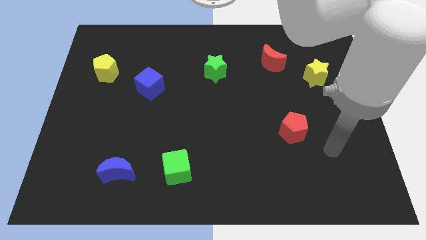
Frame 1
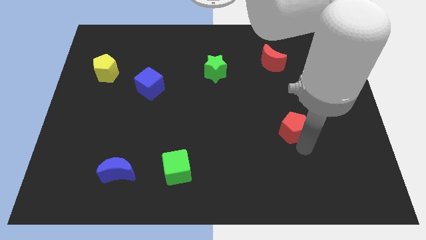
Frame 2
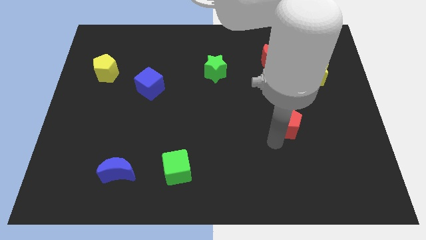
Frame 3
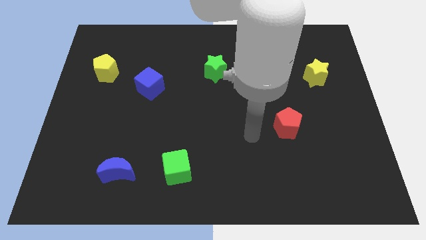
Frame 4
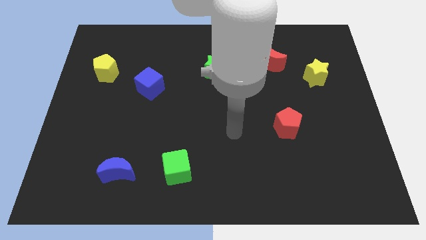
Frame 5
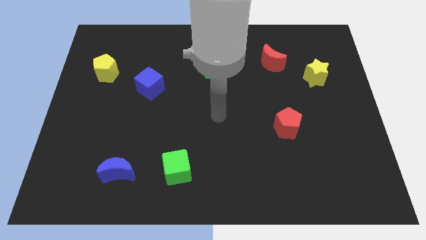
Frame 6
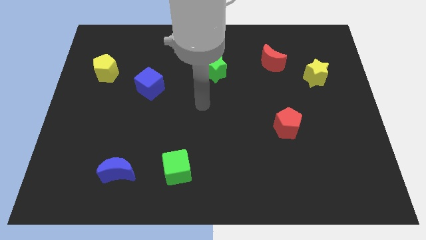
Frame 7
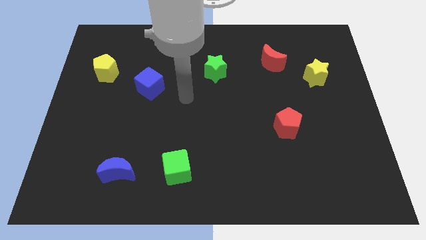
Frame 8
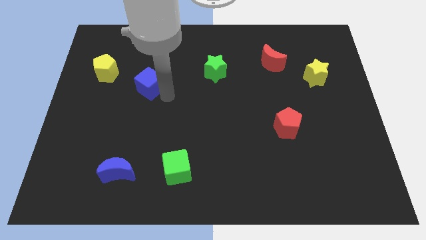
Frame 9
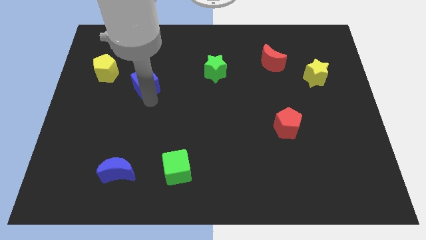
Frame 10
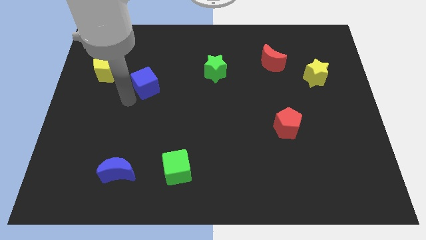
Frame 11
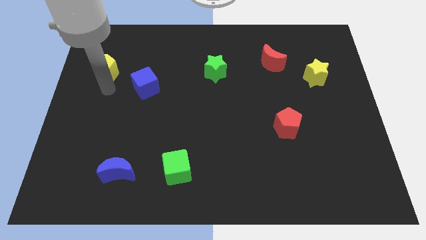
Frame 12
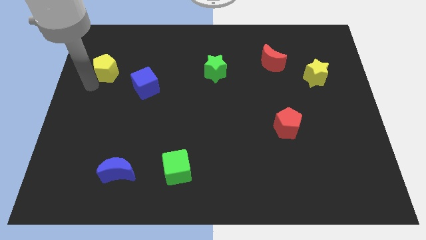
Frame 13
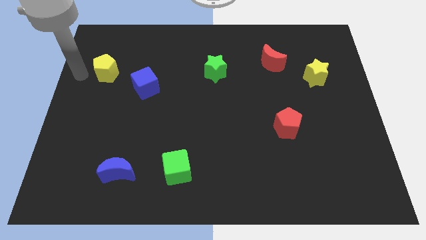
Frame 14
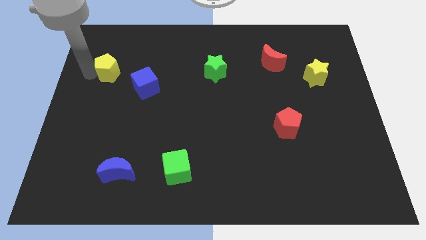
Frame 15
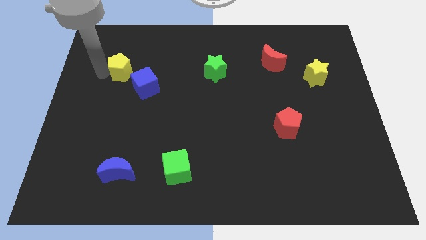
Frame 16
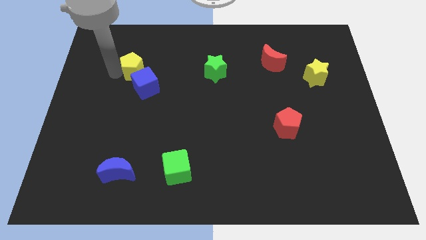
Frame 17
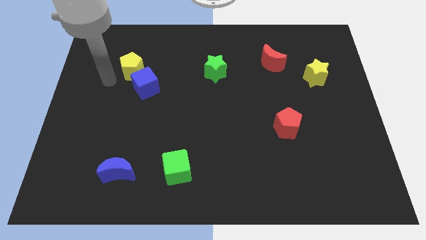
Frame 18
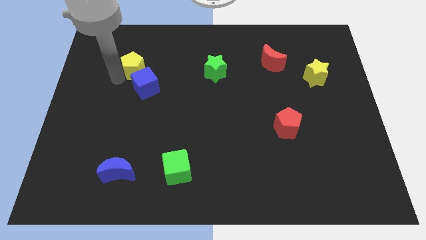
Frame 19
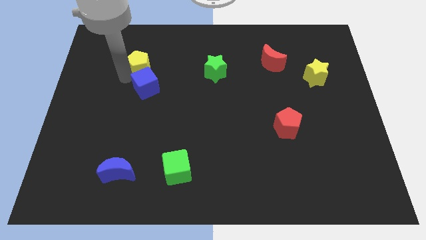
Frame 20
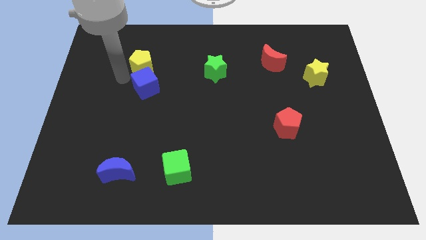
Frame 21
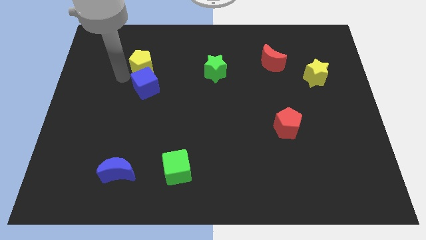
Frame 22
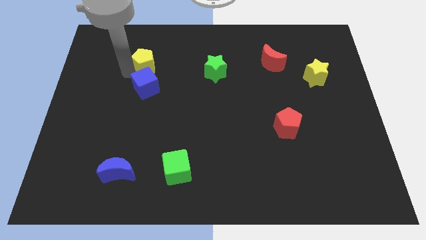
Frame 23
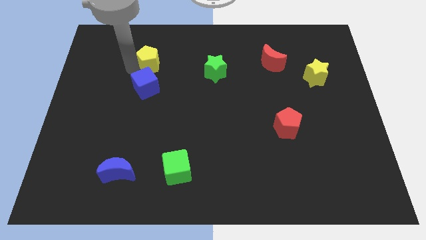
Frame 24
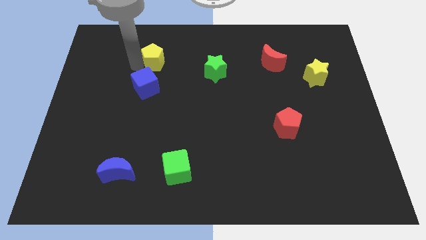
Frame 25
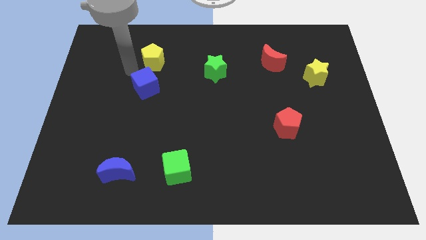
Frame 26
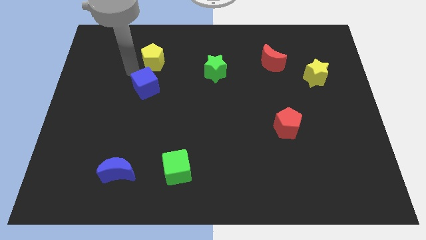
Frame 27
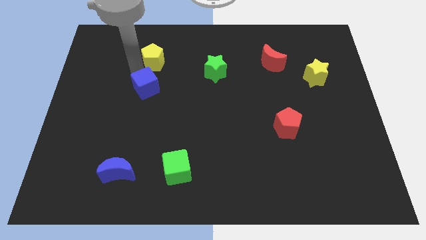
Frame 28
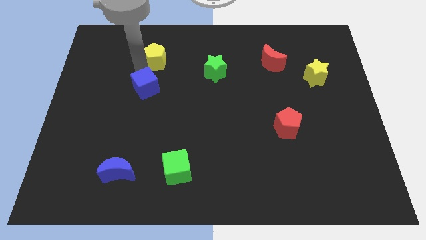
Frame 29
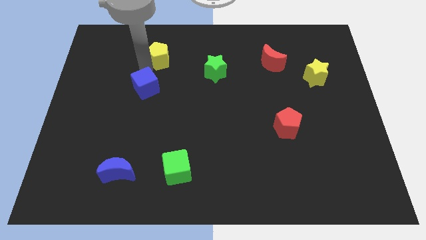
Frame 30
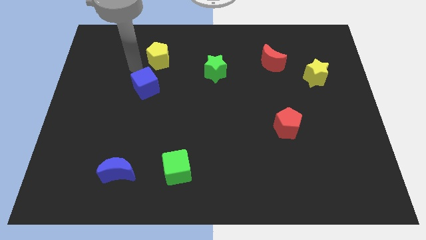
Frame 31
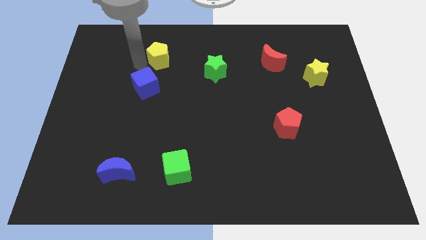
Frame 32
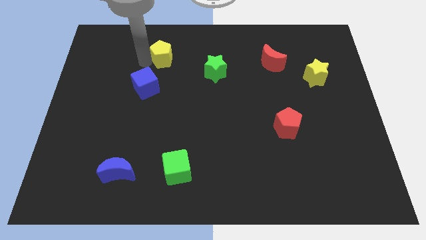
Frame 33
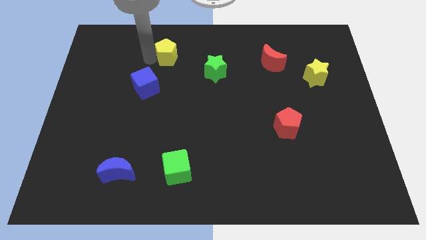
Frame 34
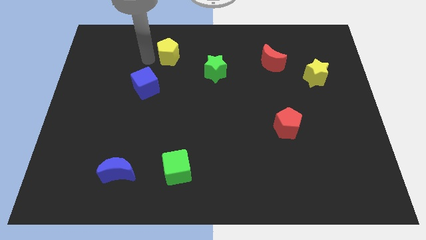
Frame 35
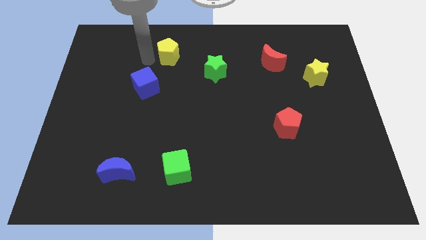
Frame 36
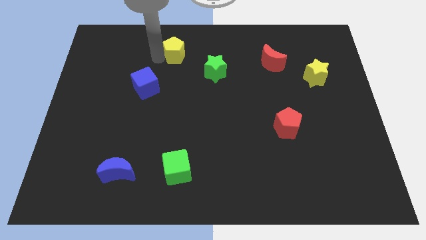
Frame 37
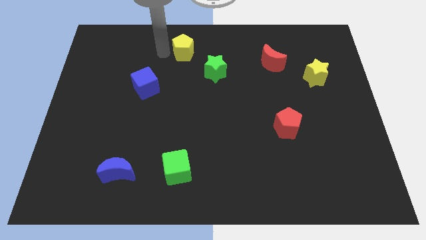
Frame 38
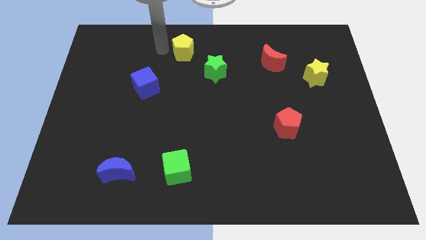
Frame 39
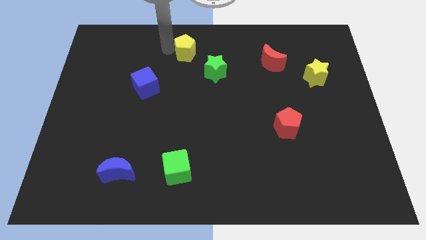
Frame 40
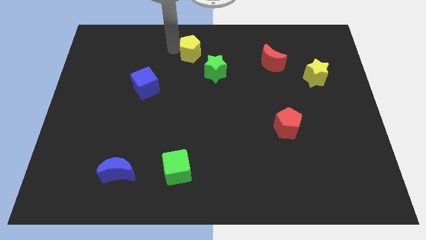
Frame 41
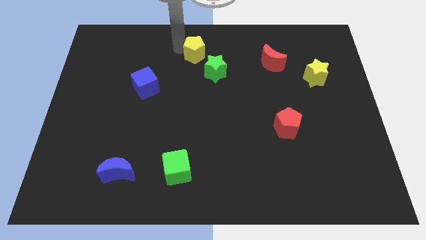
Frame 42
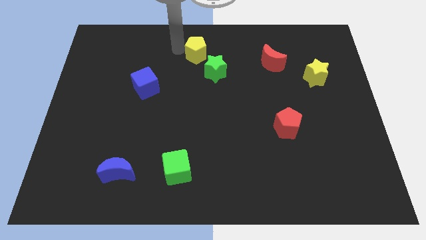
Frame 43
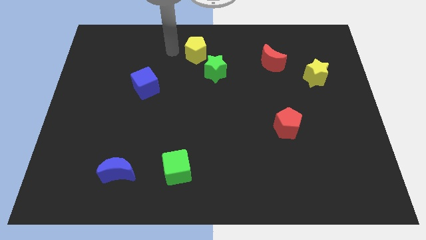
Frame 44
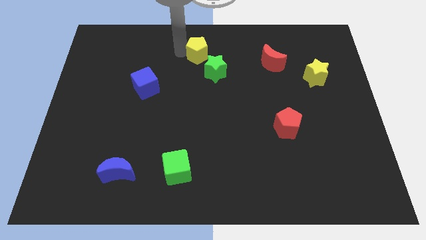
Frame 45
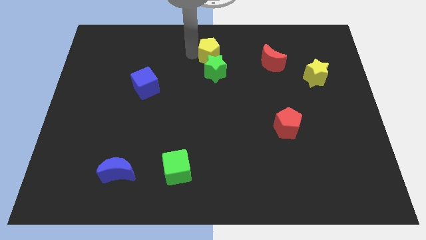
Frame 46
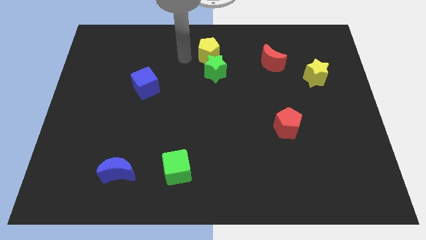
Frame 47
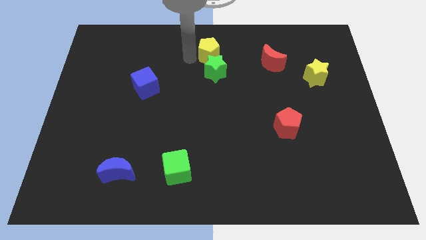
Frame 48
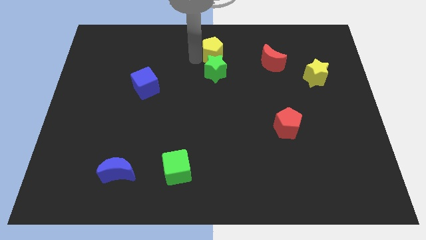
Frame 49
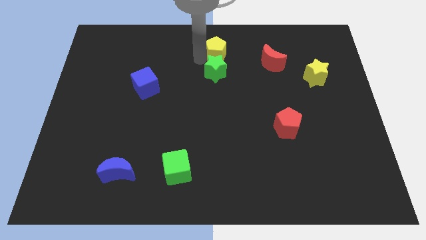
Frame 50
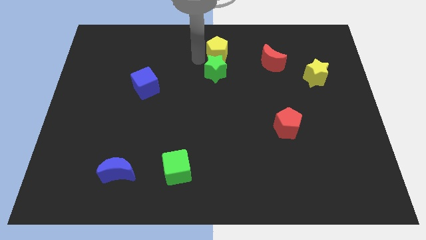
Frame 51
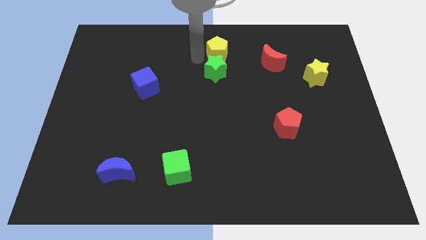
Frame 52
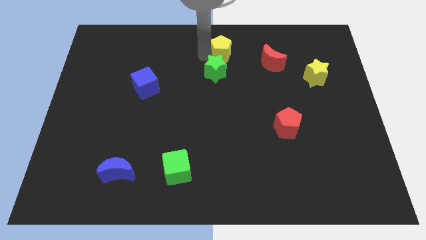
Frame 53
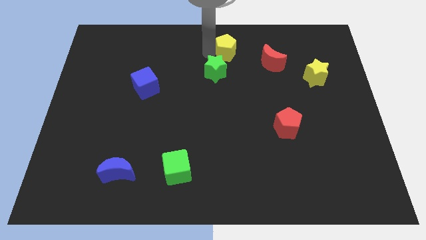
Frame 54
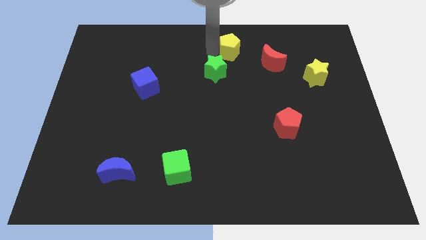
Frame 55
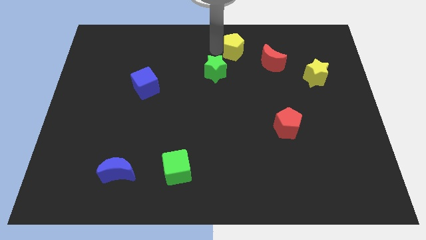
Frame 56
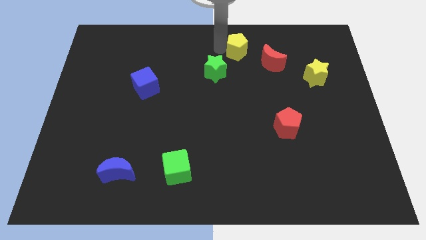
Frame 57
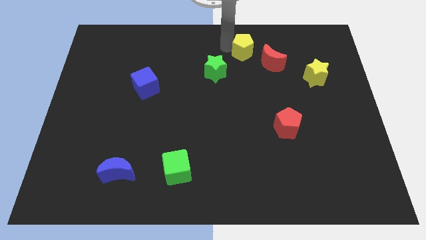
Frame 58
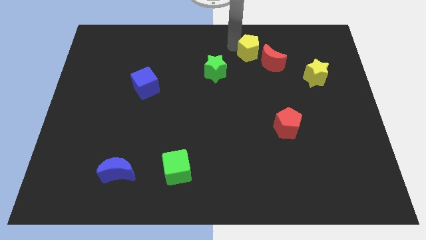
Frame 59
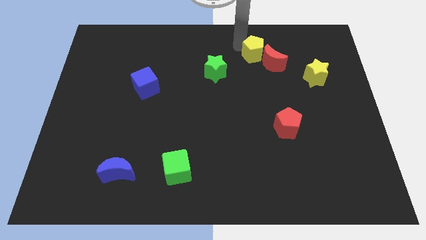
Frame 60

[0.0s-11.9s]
put the yellow pentagon to the red moon

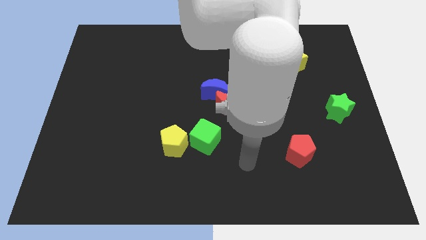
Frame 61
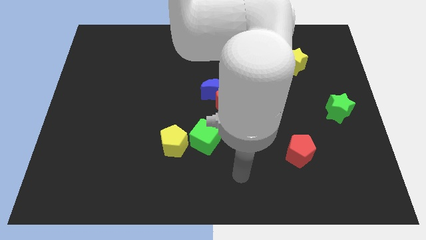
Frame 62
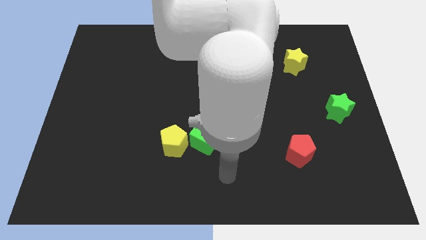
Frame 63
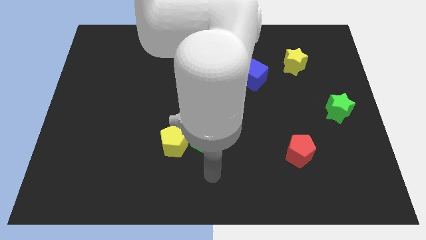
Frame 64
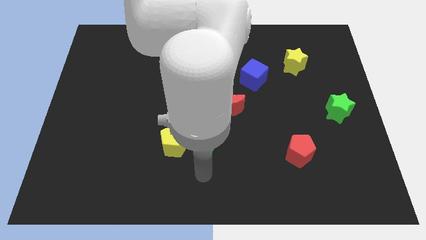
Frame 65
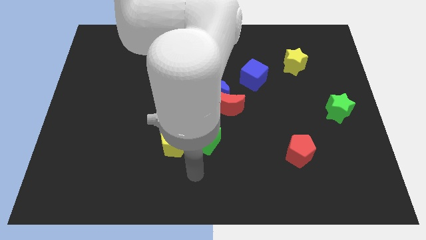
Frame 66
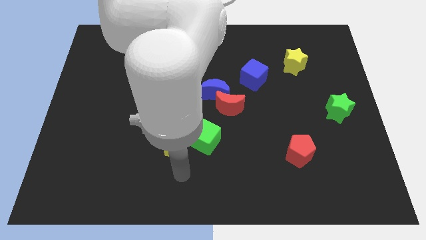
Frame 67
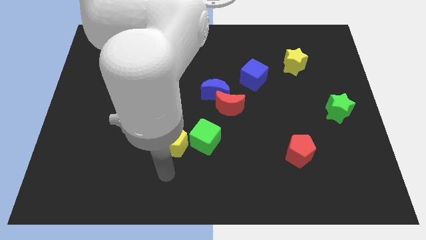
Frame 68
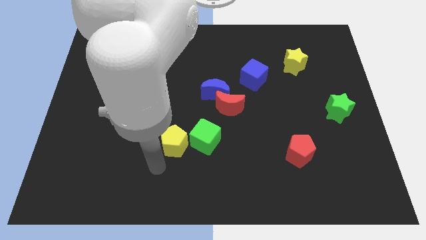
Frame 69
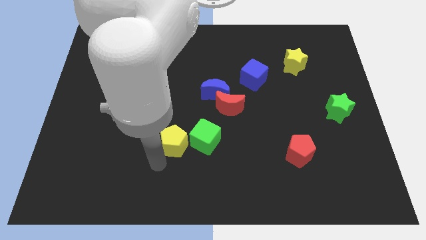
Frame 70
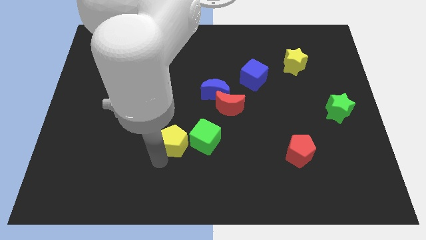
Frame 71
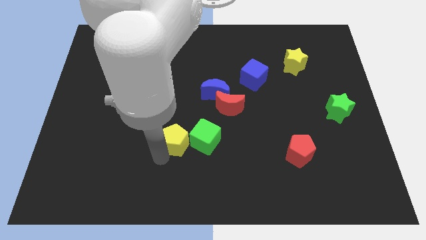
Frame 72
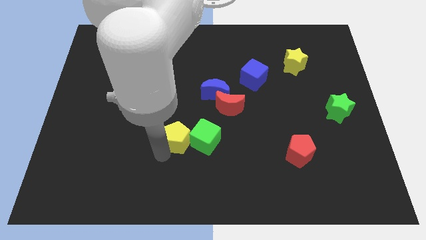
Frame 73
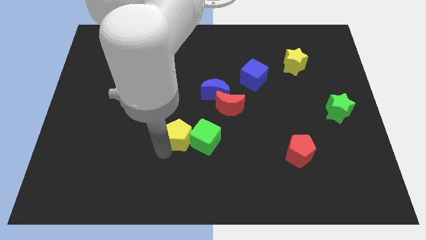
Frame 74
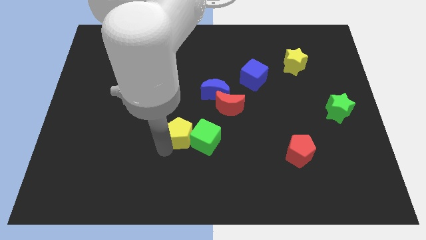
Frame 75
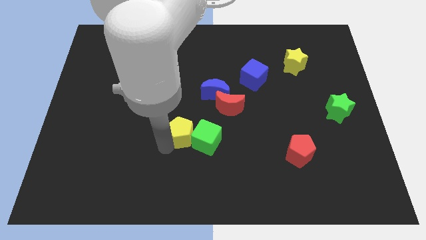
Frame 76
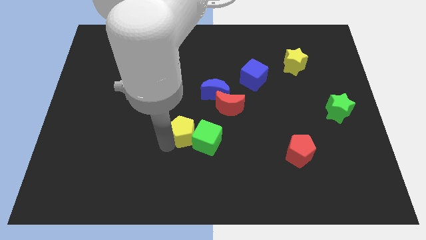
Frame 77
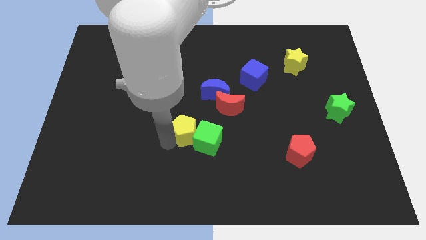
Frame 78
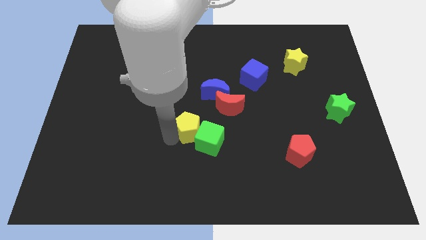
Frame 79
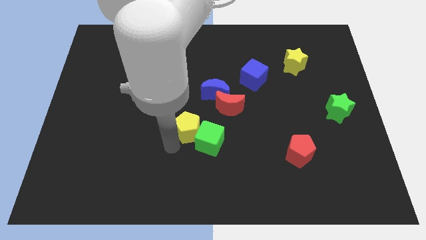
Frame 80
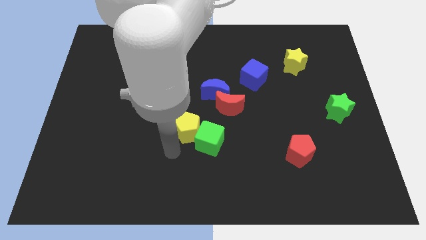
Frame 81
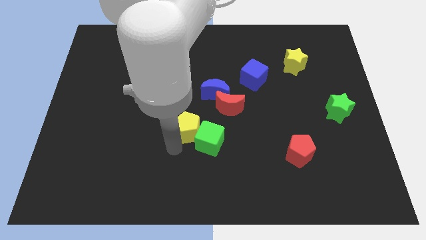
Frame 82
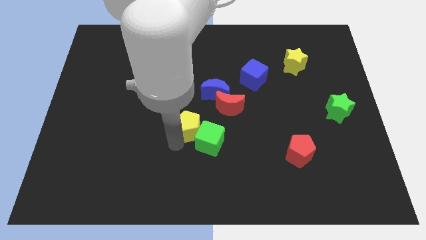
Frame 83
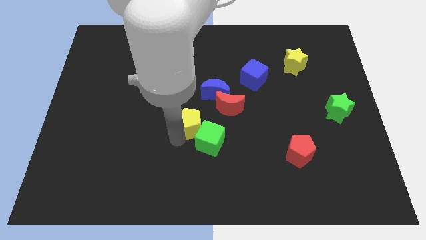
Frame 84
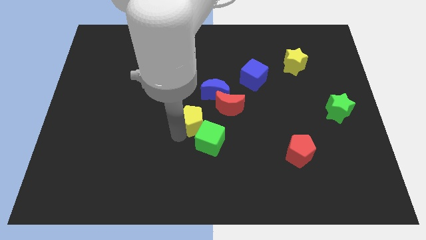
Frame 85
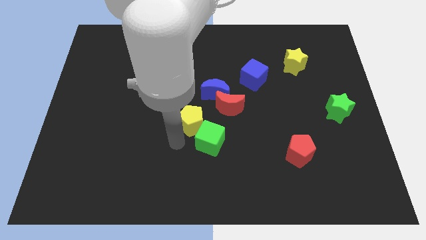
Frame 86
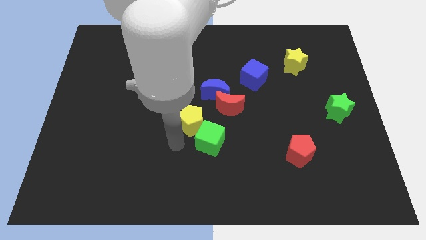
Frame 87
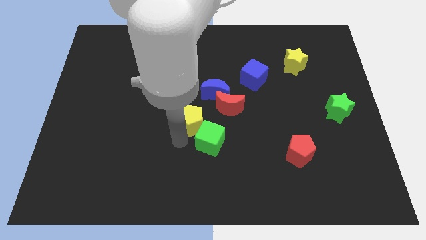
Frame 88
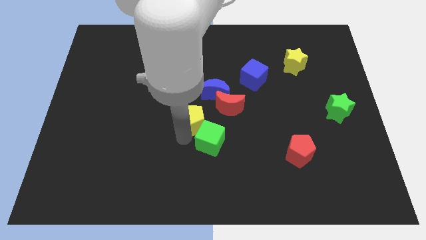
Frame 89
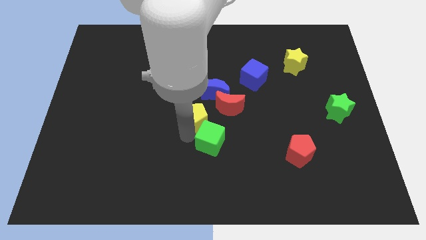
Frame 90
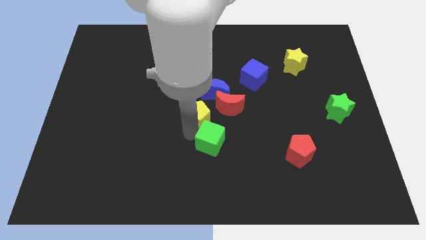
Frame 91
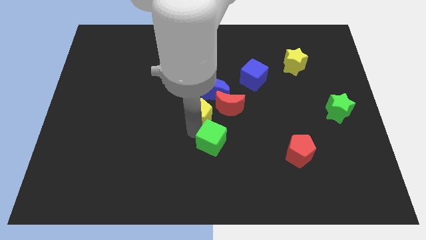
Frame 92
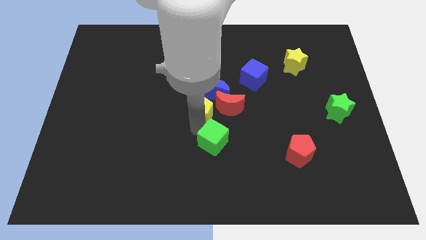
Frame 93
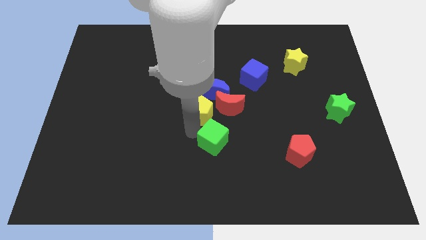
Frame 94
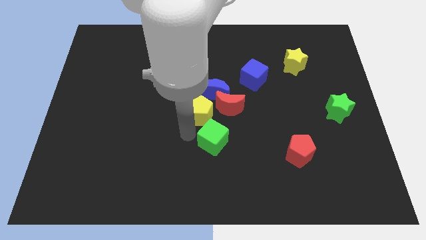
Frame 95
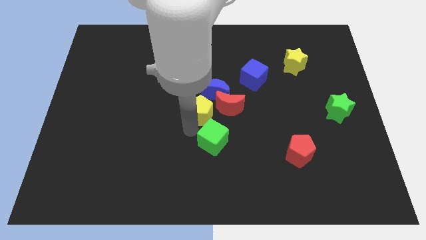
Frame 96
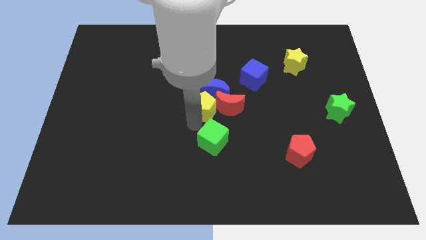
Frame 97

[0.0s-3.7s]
move the yellow pentagon towards the blue moon
